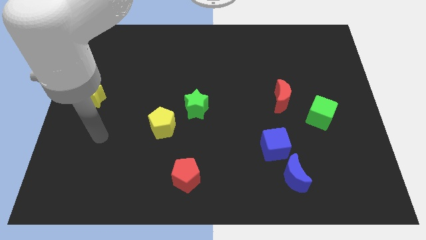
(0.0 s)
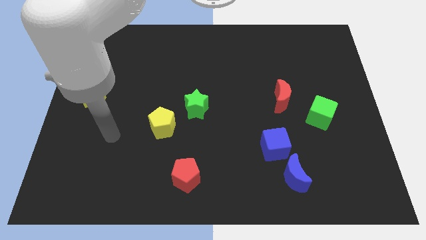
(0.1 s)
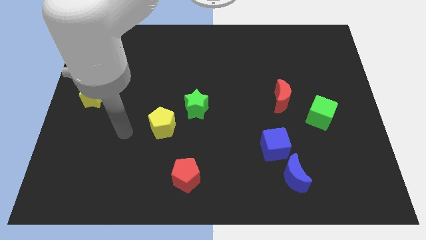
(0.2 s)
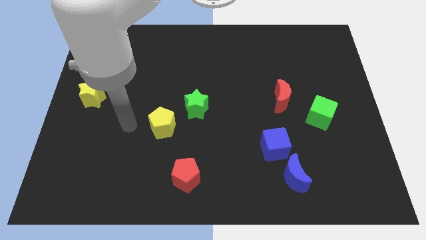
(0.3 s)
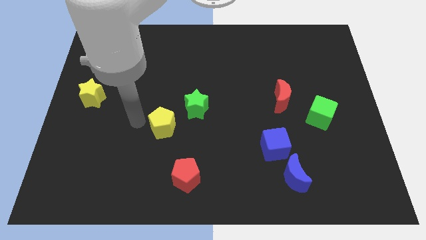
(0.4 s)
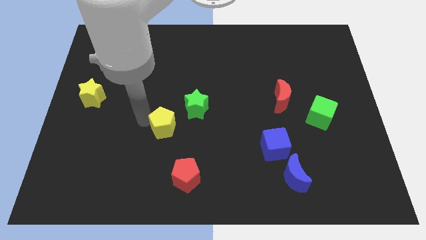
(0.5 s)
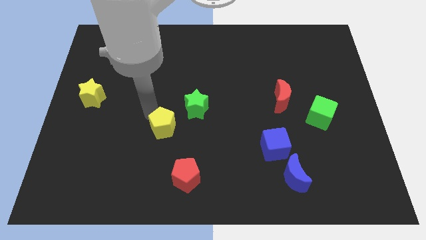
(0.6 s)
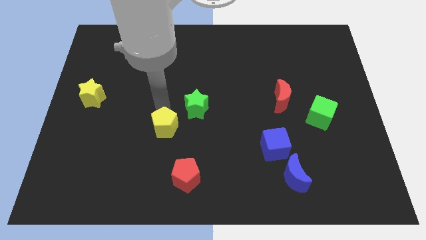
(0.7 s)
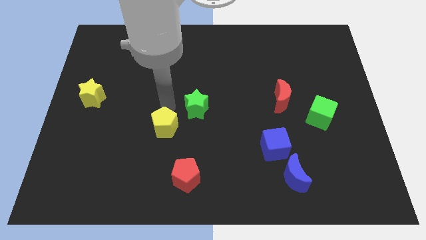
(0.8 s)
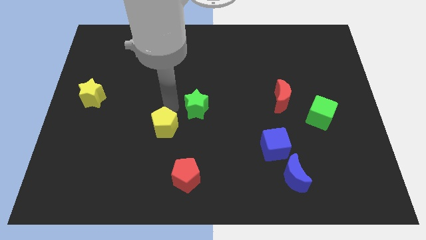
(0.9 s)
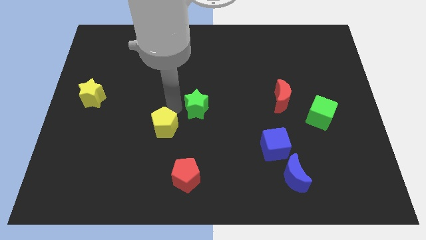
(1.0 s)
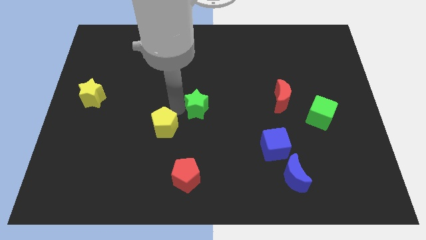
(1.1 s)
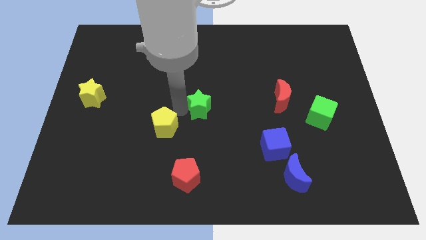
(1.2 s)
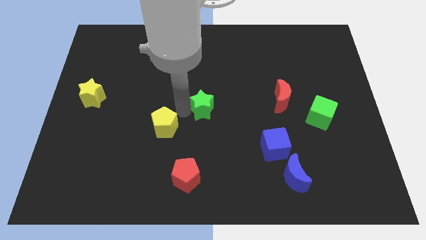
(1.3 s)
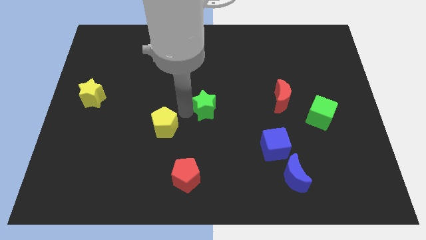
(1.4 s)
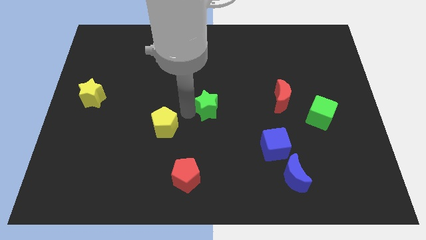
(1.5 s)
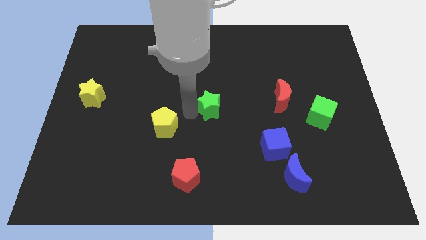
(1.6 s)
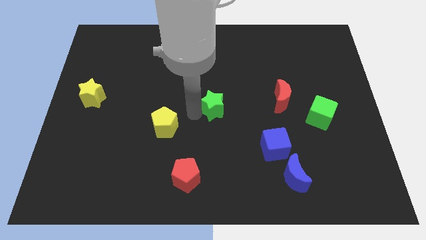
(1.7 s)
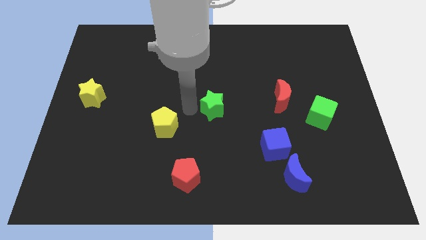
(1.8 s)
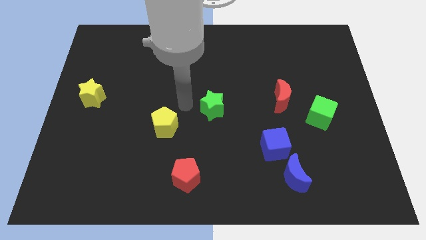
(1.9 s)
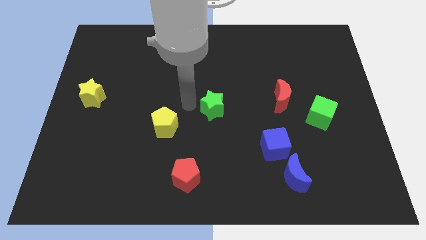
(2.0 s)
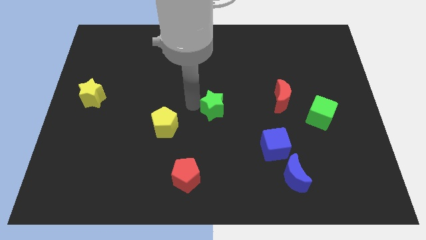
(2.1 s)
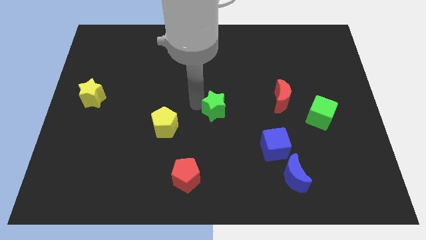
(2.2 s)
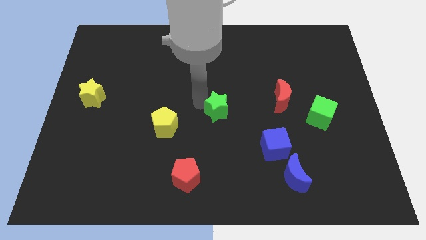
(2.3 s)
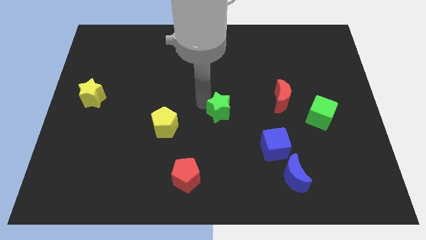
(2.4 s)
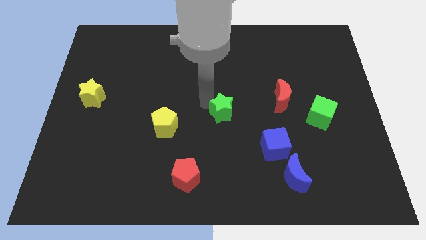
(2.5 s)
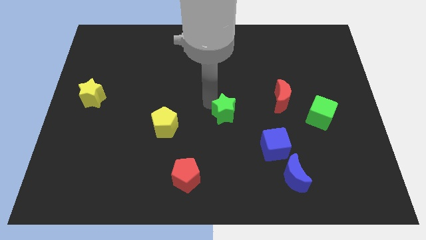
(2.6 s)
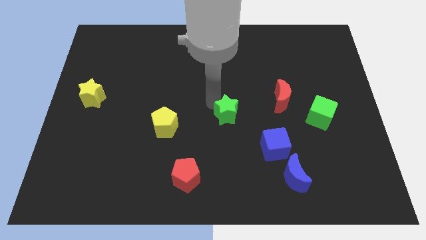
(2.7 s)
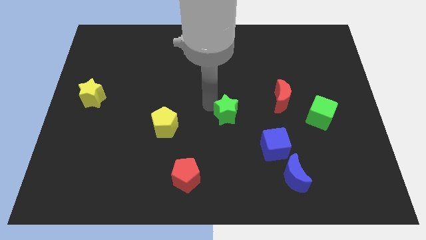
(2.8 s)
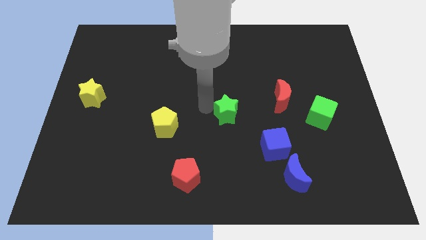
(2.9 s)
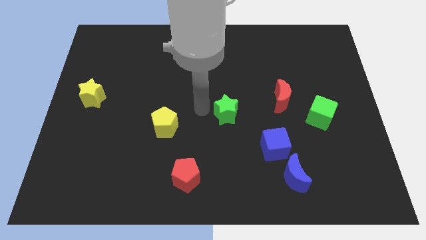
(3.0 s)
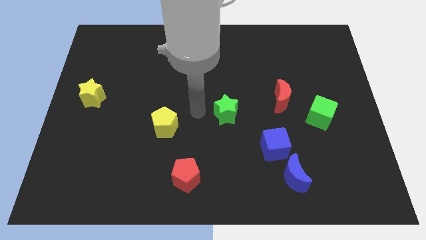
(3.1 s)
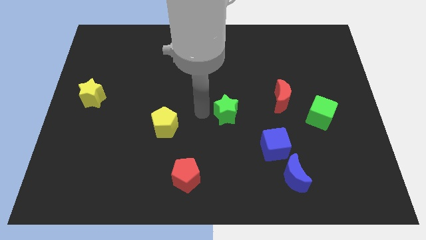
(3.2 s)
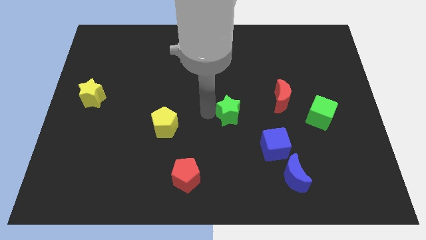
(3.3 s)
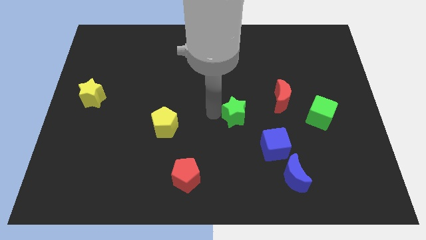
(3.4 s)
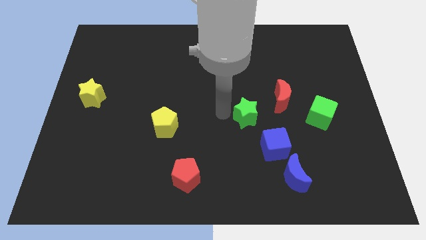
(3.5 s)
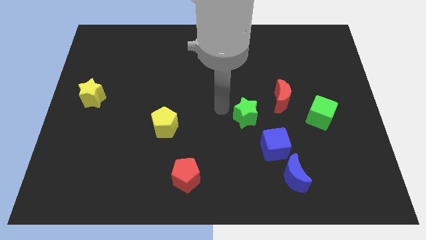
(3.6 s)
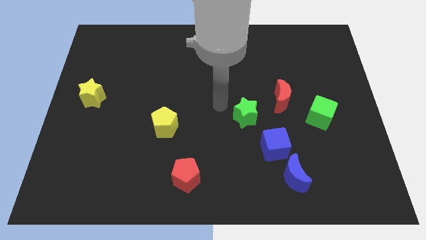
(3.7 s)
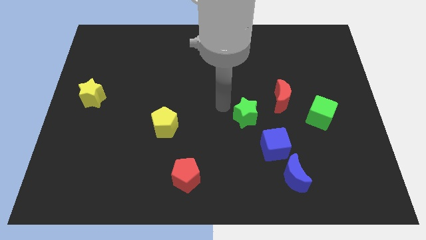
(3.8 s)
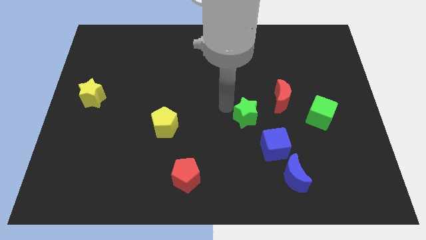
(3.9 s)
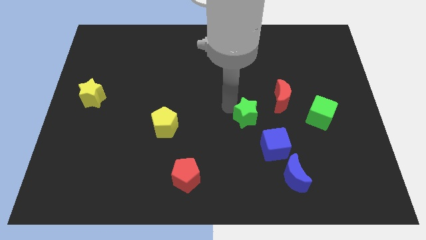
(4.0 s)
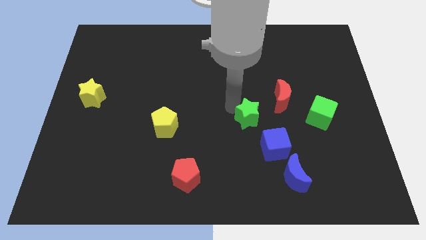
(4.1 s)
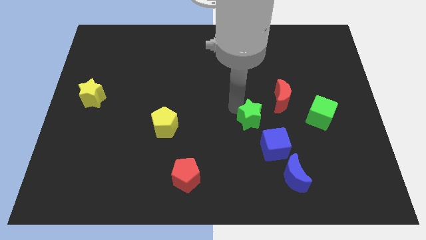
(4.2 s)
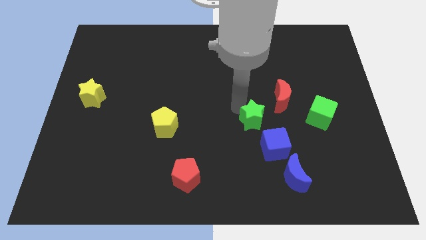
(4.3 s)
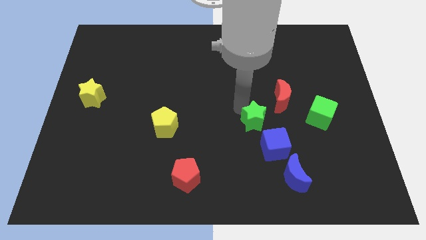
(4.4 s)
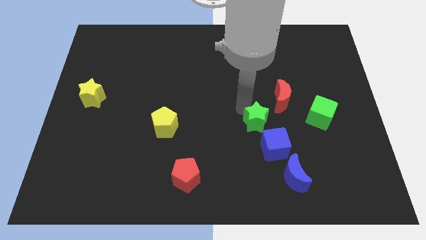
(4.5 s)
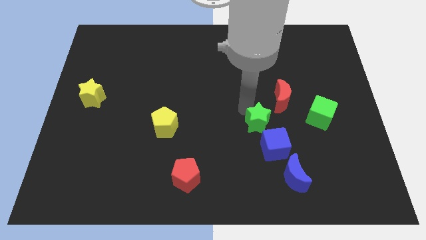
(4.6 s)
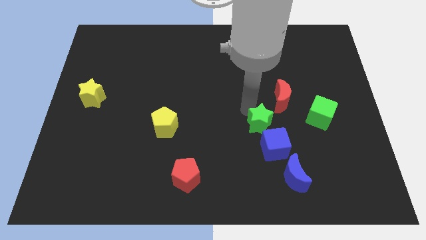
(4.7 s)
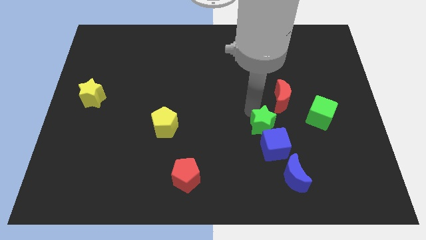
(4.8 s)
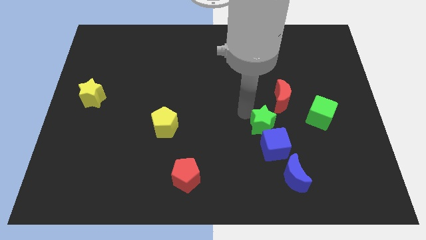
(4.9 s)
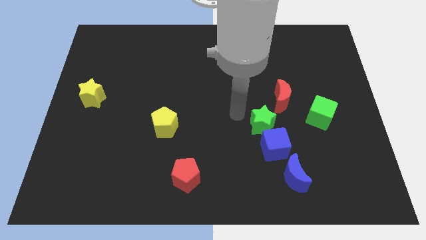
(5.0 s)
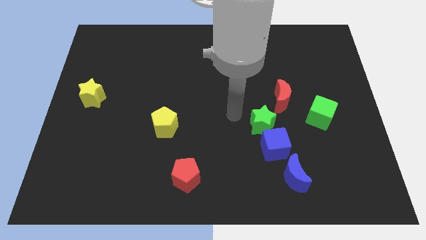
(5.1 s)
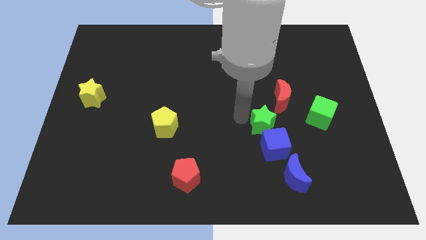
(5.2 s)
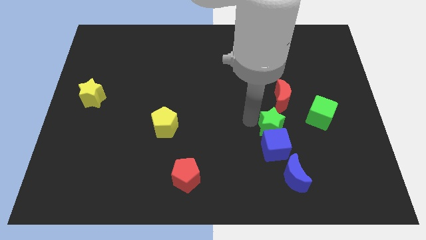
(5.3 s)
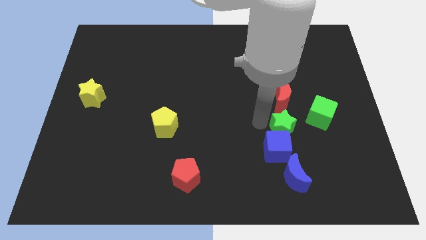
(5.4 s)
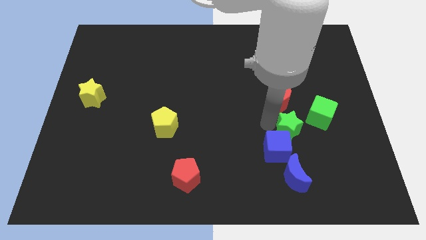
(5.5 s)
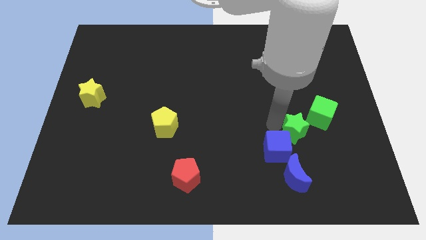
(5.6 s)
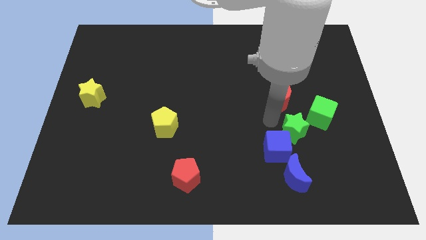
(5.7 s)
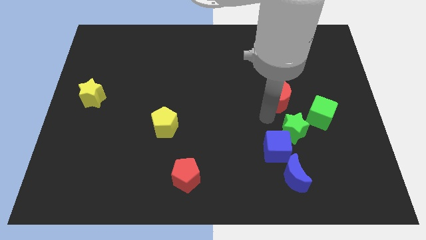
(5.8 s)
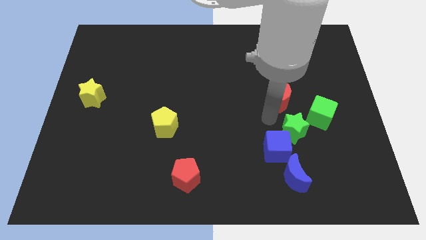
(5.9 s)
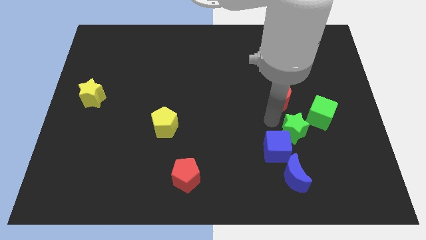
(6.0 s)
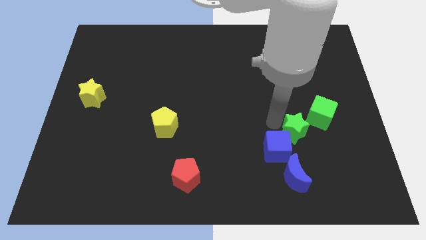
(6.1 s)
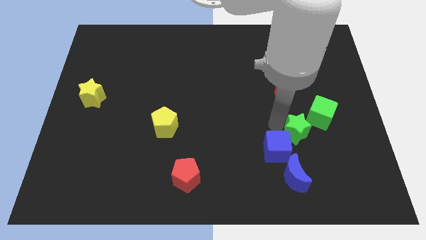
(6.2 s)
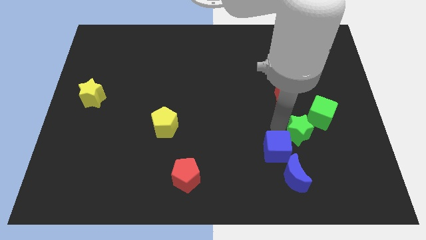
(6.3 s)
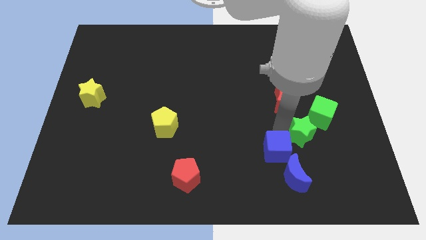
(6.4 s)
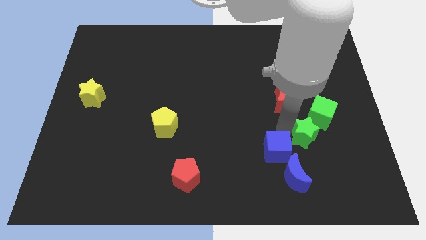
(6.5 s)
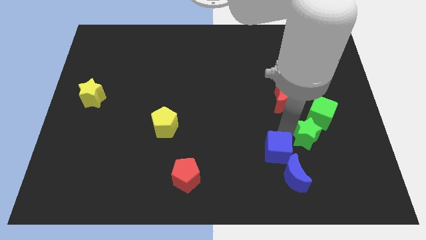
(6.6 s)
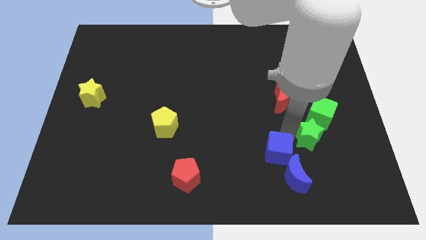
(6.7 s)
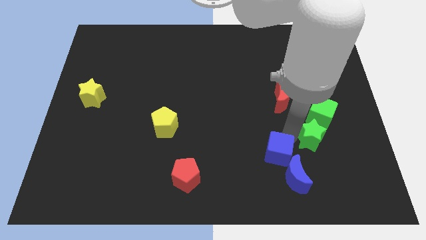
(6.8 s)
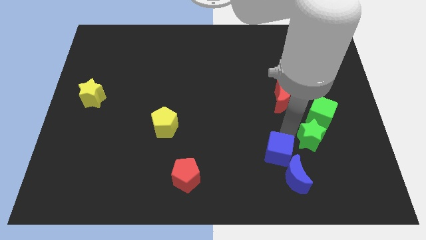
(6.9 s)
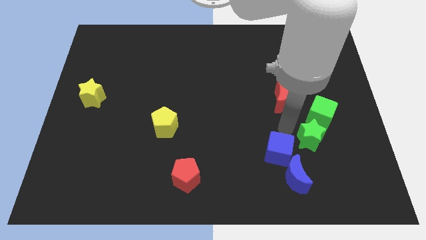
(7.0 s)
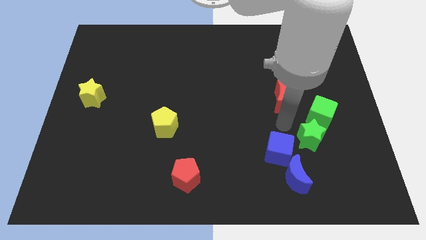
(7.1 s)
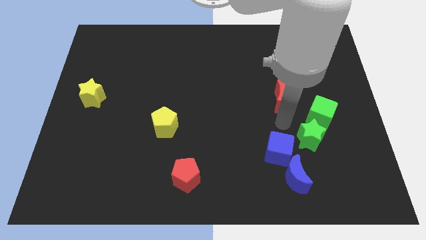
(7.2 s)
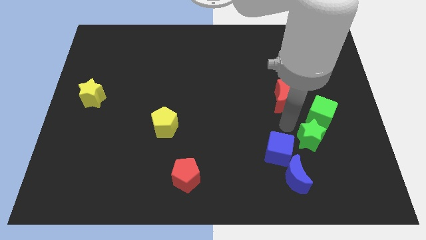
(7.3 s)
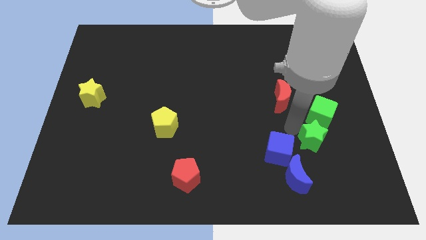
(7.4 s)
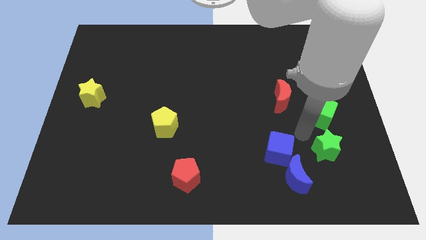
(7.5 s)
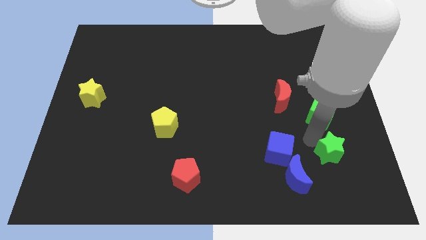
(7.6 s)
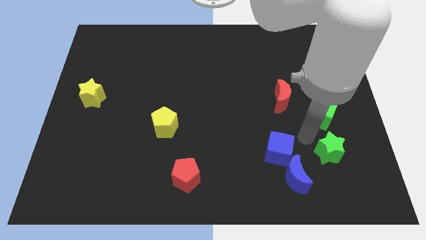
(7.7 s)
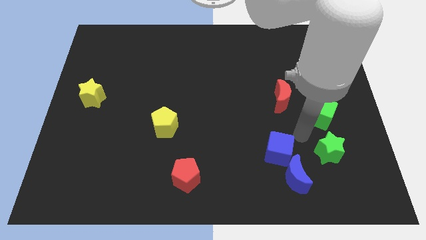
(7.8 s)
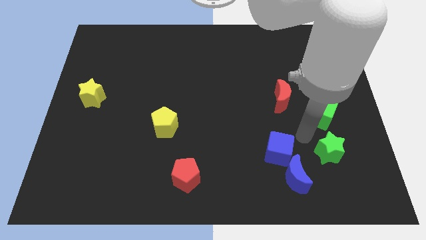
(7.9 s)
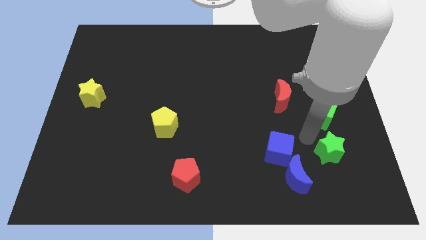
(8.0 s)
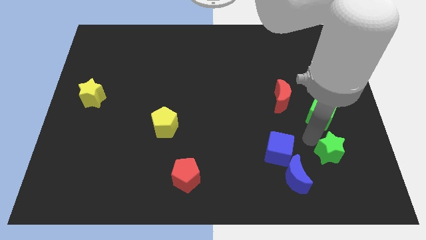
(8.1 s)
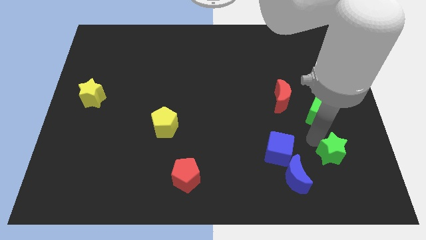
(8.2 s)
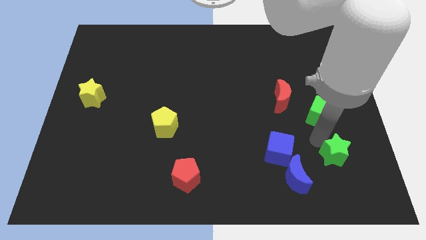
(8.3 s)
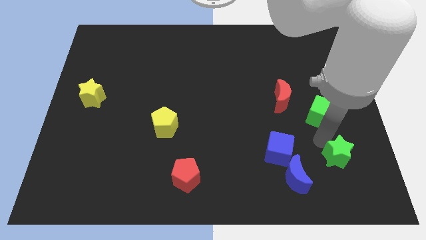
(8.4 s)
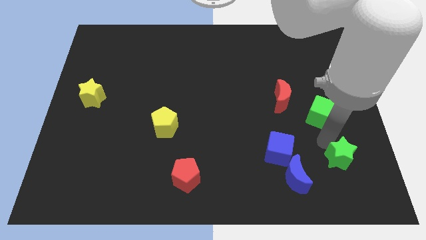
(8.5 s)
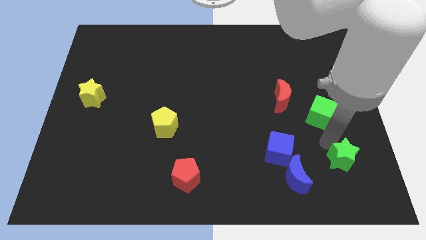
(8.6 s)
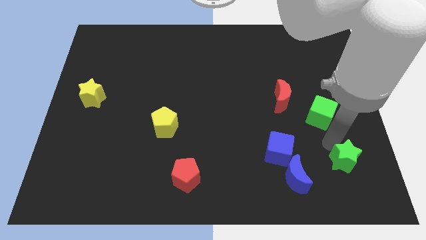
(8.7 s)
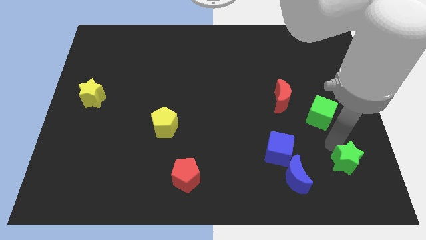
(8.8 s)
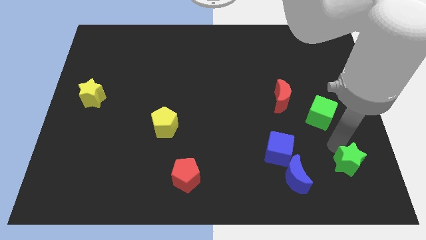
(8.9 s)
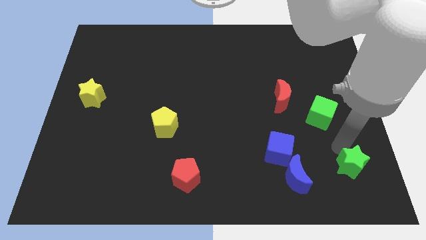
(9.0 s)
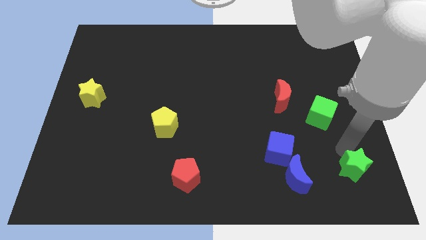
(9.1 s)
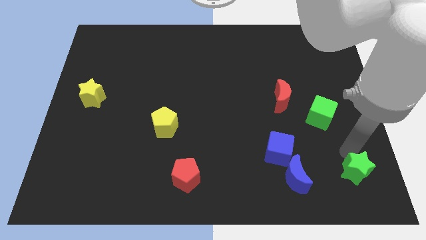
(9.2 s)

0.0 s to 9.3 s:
put the green star to the bottom right corner
